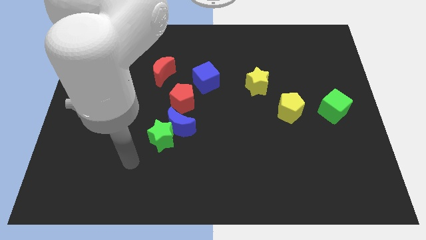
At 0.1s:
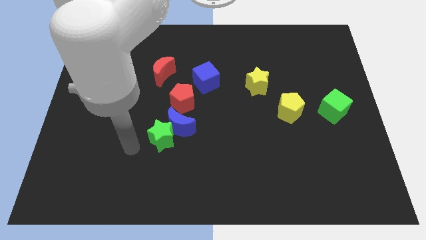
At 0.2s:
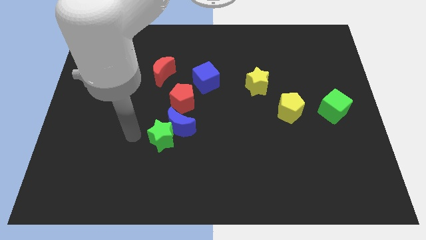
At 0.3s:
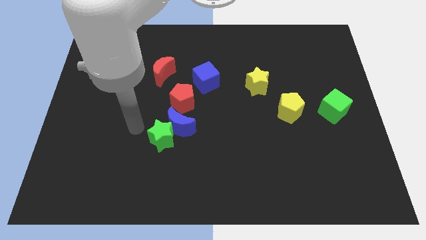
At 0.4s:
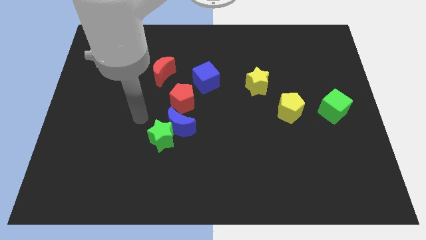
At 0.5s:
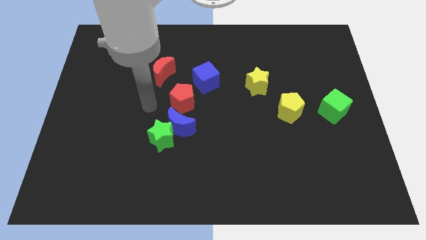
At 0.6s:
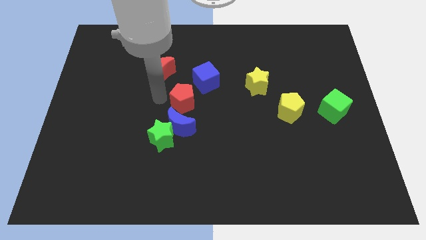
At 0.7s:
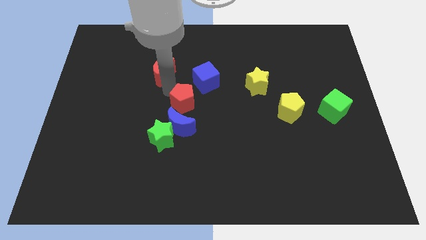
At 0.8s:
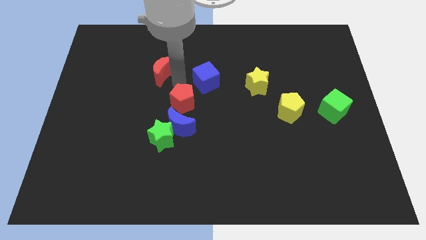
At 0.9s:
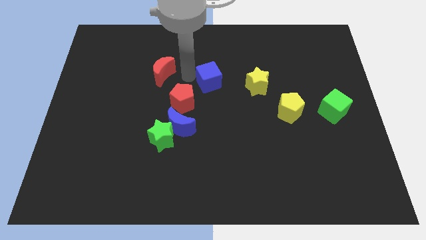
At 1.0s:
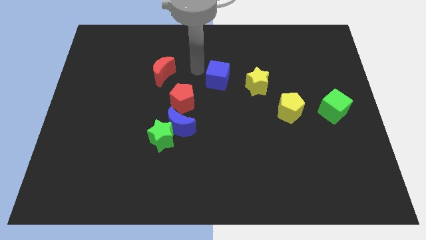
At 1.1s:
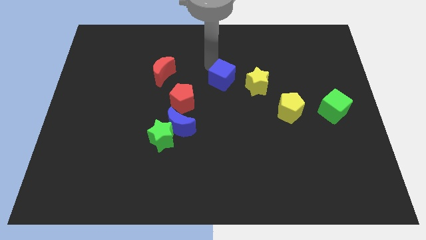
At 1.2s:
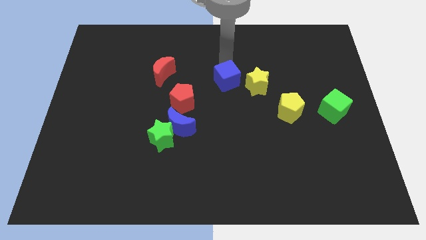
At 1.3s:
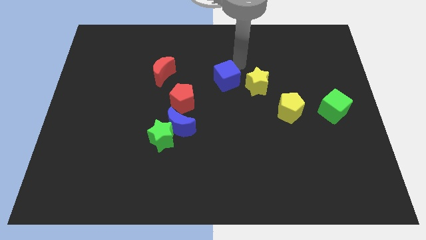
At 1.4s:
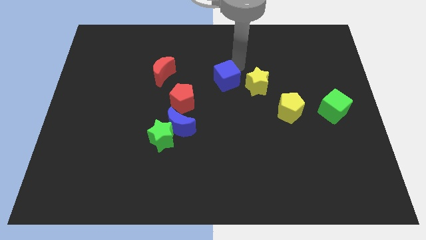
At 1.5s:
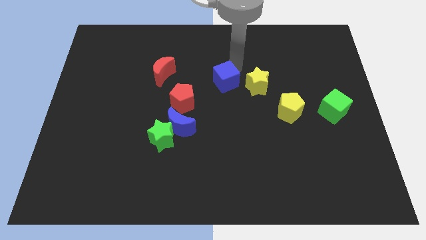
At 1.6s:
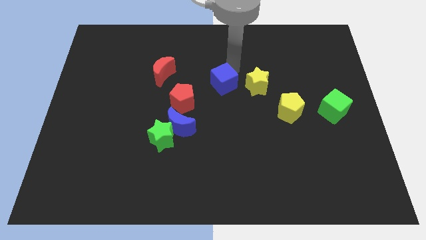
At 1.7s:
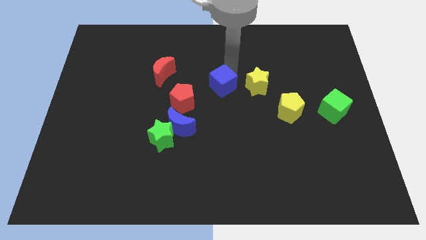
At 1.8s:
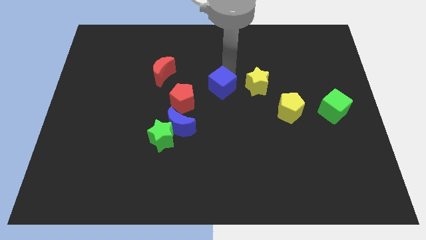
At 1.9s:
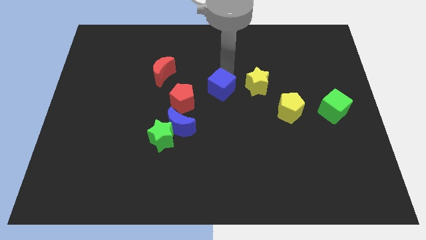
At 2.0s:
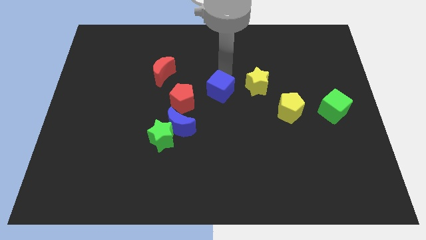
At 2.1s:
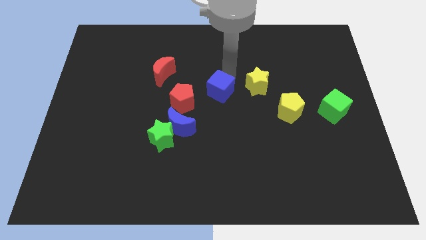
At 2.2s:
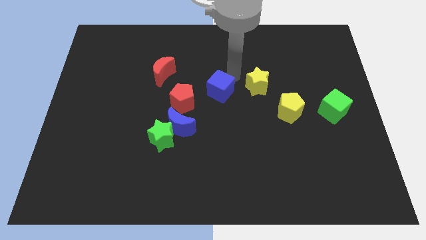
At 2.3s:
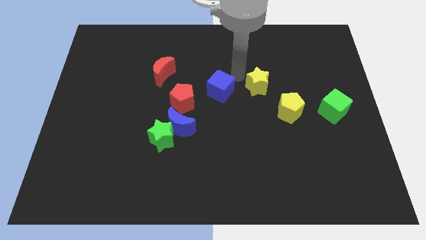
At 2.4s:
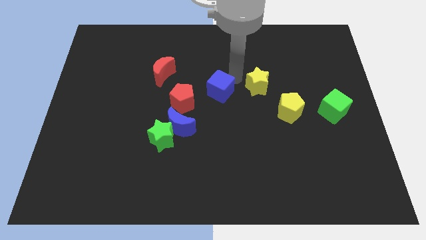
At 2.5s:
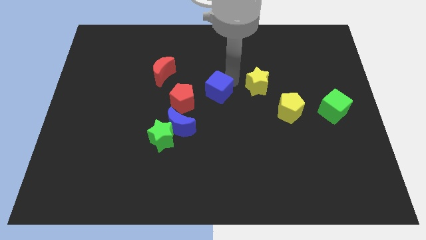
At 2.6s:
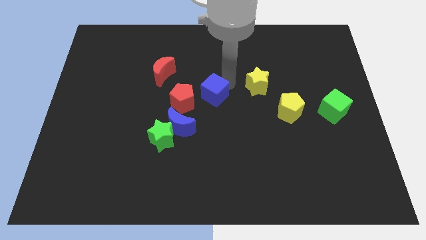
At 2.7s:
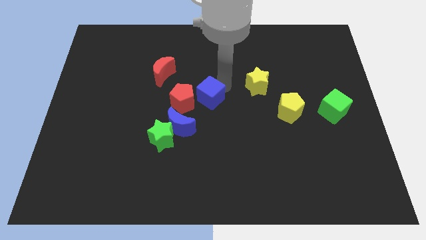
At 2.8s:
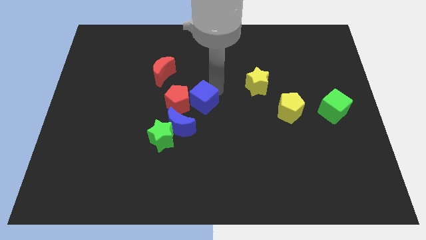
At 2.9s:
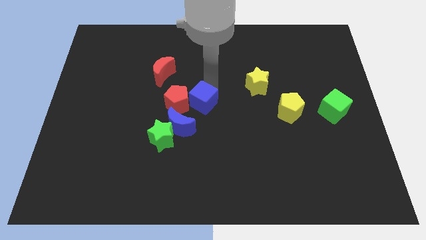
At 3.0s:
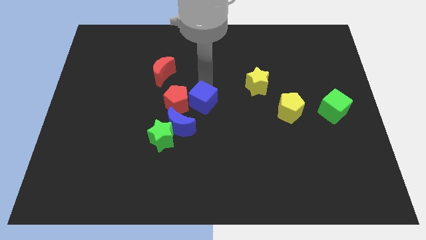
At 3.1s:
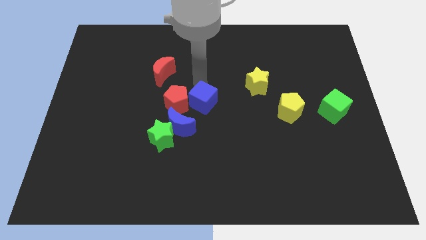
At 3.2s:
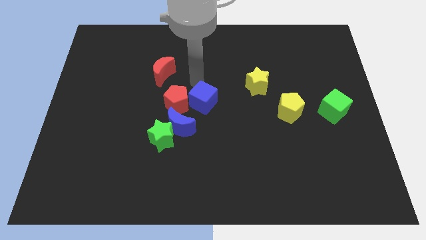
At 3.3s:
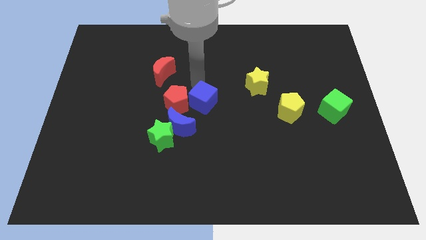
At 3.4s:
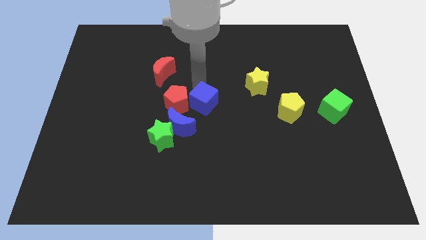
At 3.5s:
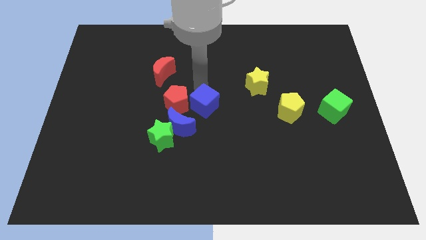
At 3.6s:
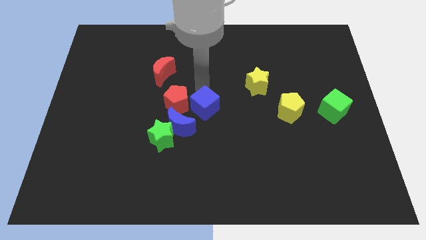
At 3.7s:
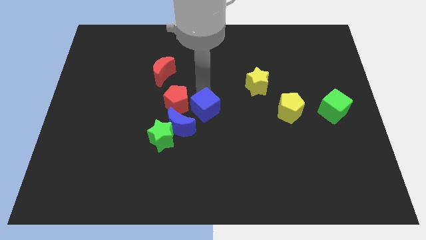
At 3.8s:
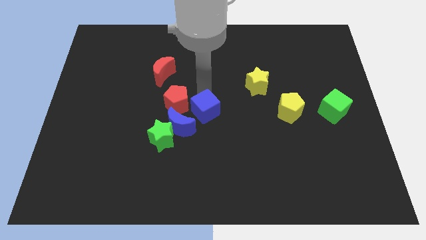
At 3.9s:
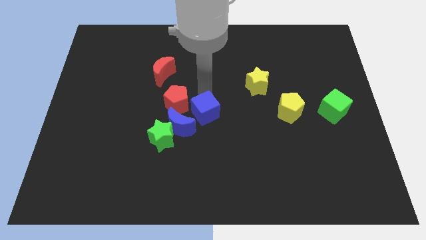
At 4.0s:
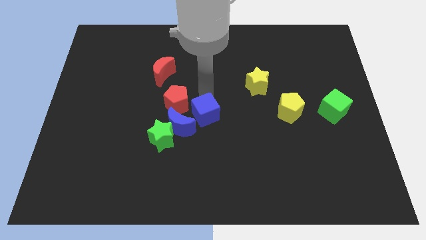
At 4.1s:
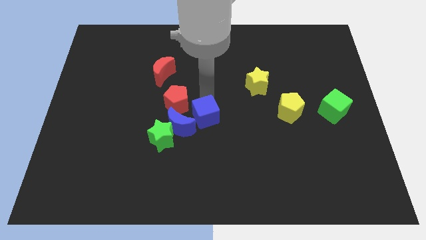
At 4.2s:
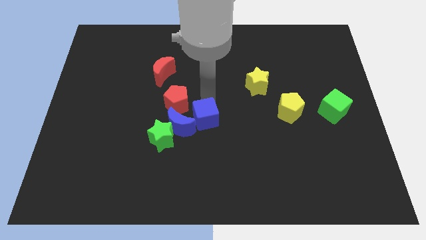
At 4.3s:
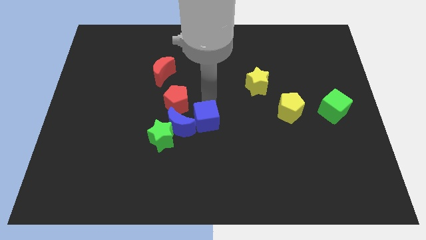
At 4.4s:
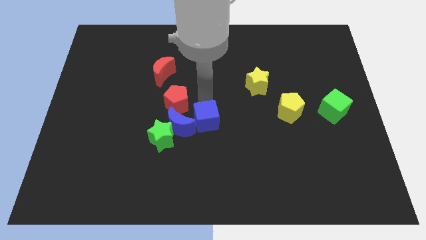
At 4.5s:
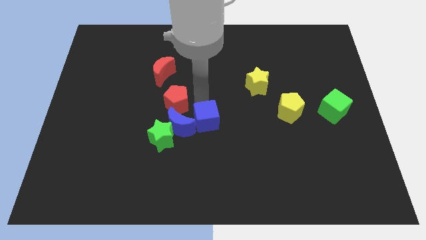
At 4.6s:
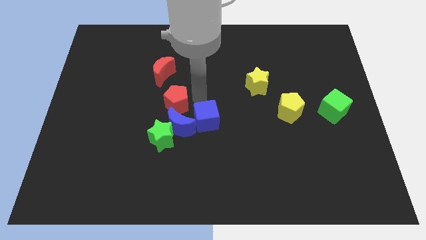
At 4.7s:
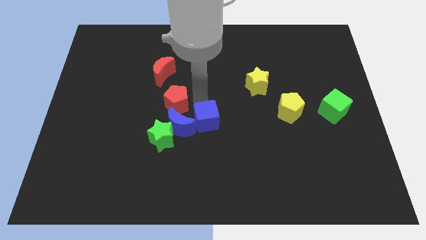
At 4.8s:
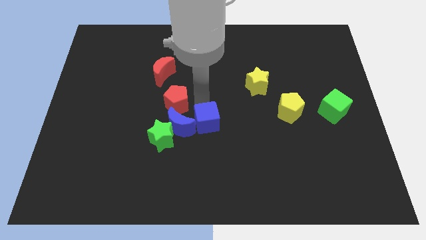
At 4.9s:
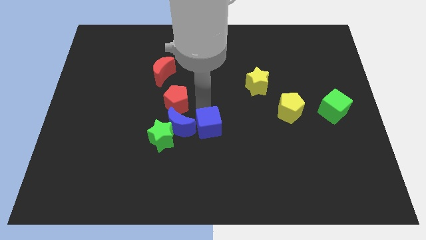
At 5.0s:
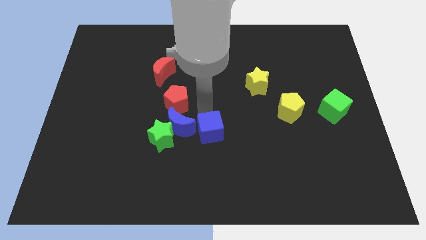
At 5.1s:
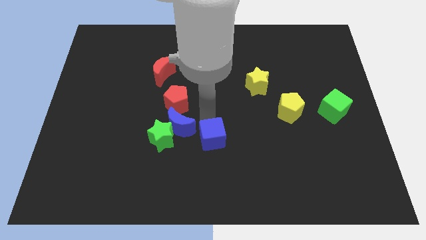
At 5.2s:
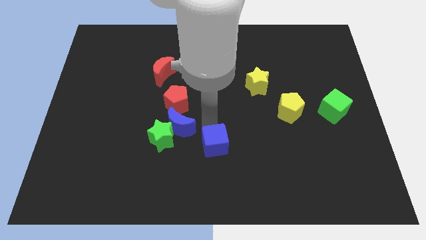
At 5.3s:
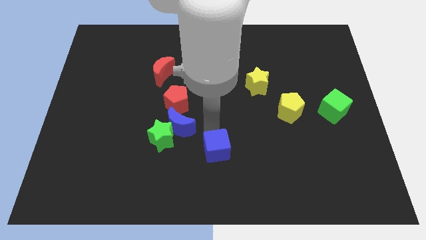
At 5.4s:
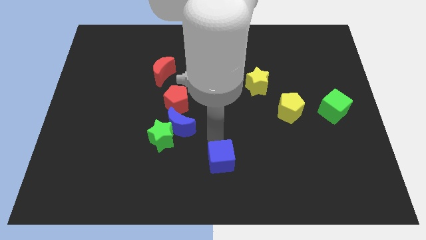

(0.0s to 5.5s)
move the blue cube to the bottom

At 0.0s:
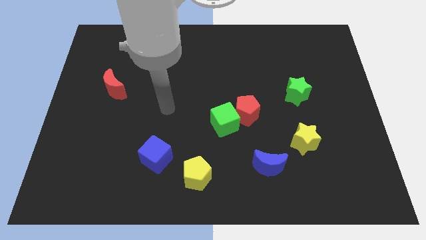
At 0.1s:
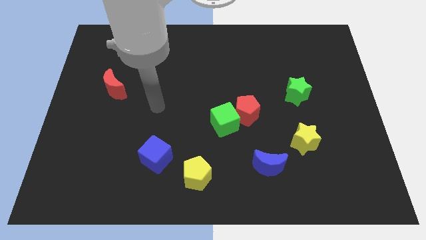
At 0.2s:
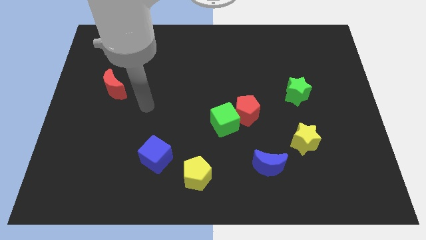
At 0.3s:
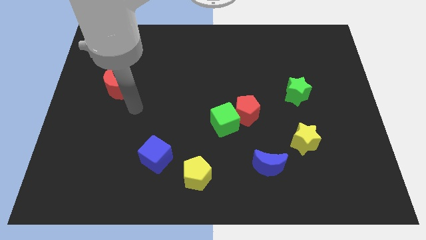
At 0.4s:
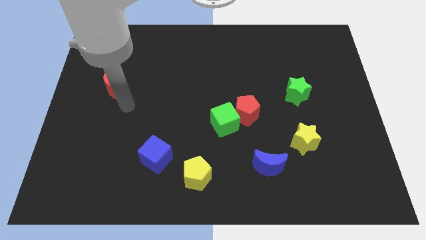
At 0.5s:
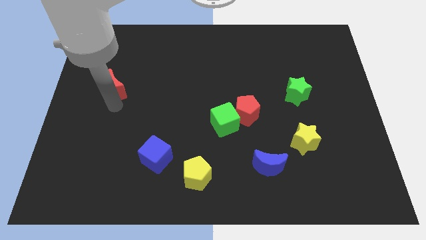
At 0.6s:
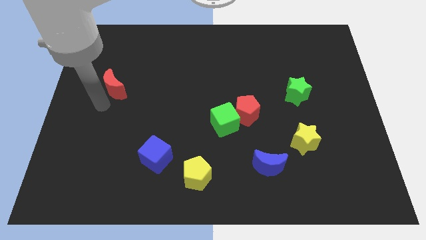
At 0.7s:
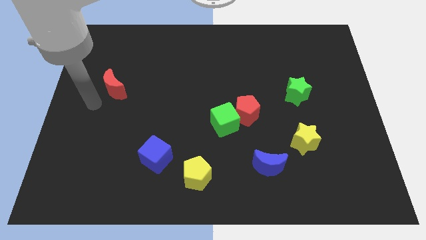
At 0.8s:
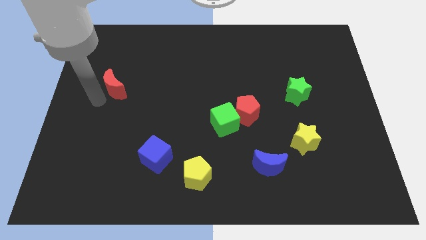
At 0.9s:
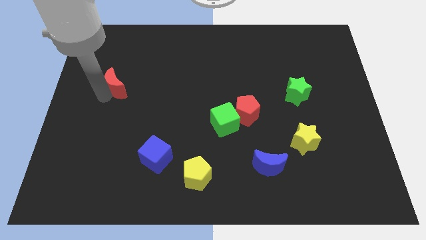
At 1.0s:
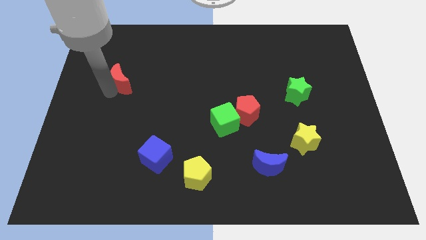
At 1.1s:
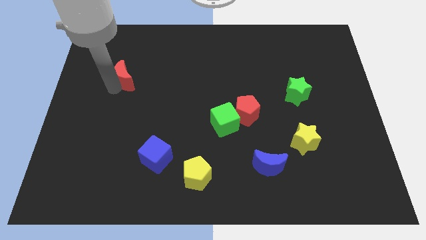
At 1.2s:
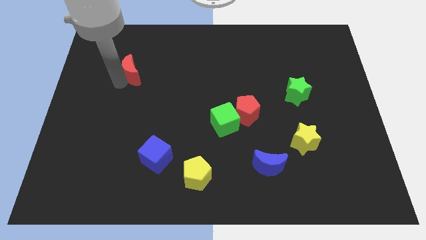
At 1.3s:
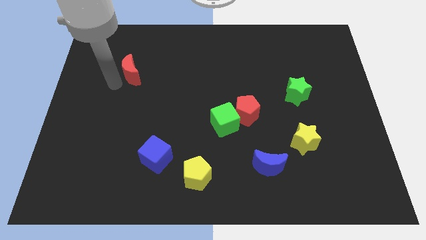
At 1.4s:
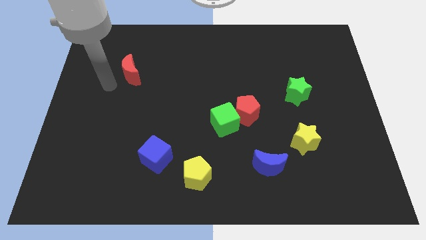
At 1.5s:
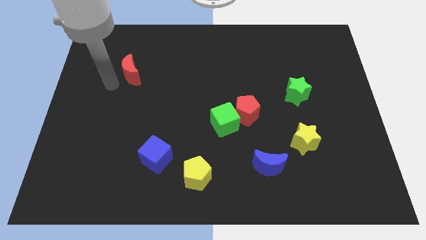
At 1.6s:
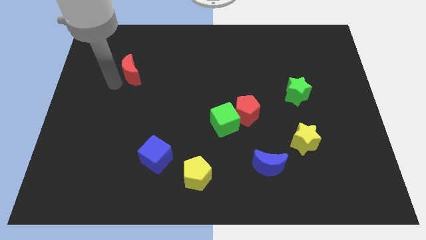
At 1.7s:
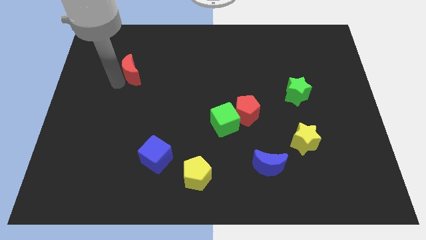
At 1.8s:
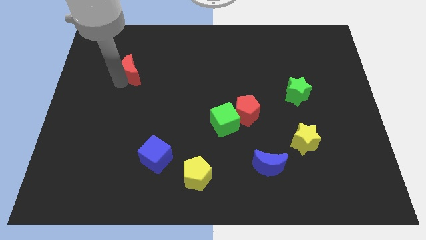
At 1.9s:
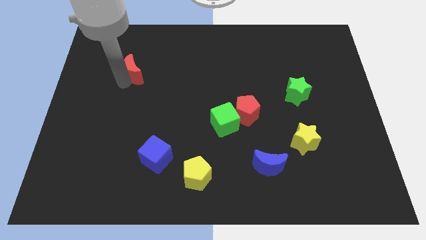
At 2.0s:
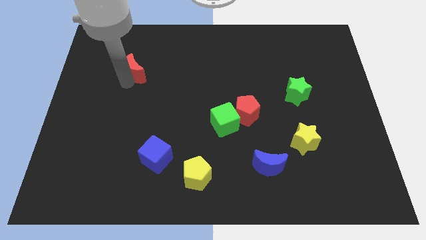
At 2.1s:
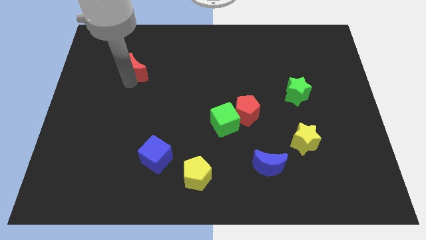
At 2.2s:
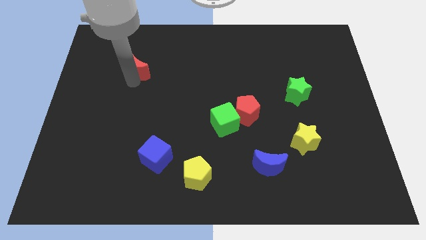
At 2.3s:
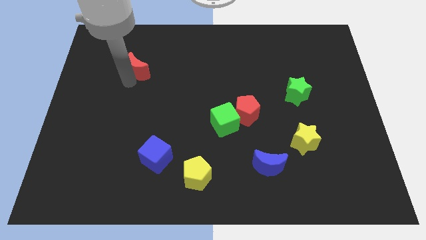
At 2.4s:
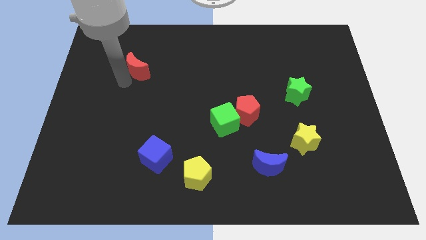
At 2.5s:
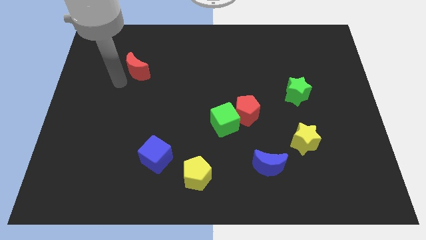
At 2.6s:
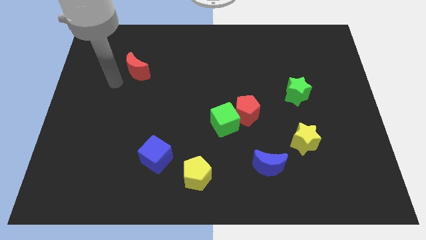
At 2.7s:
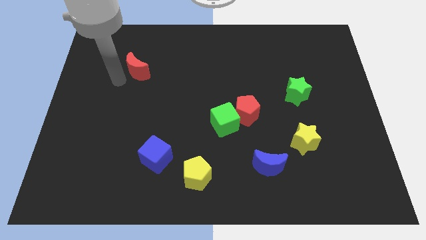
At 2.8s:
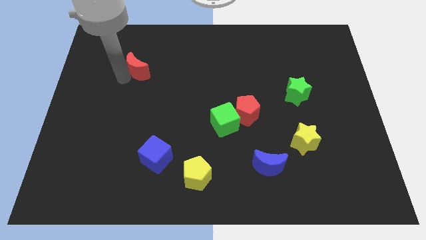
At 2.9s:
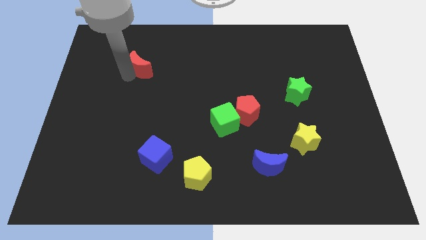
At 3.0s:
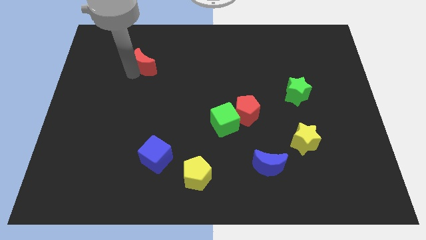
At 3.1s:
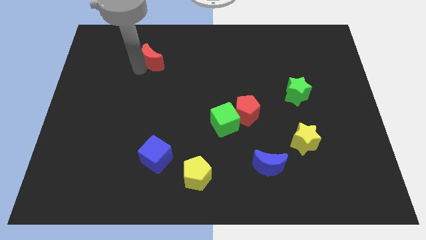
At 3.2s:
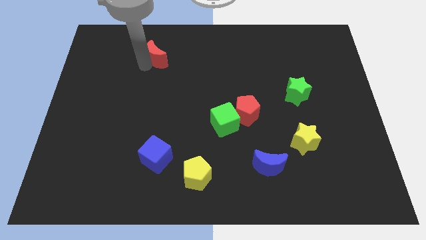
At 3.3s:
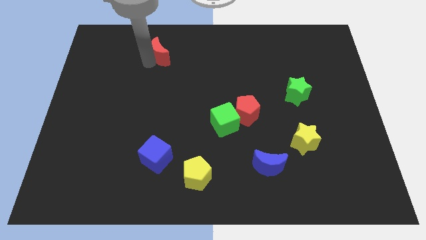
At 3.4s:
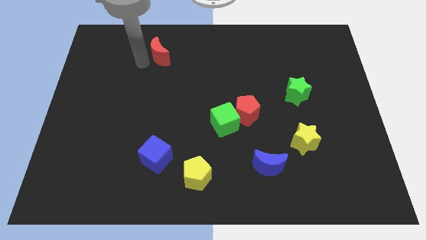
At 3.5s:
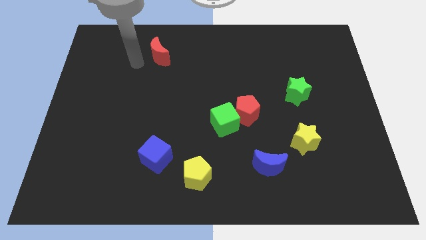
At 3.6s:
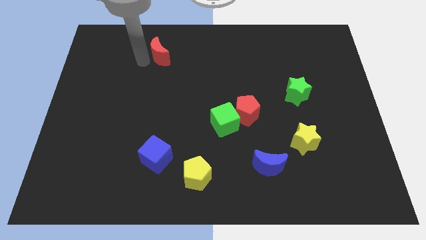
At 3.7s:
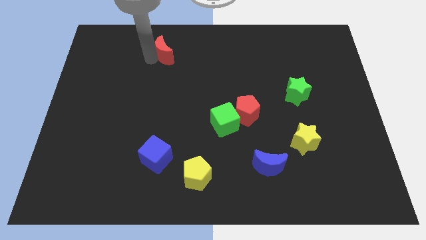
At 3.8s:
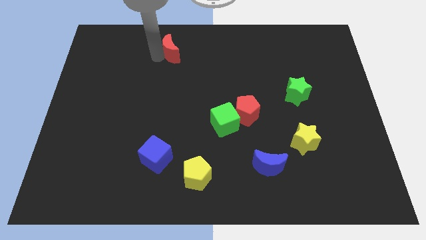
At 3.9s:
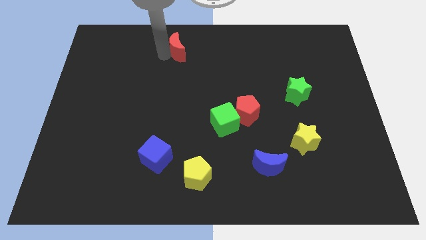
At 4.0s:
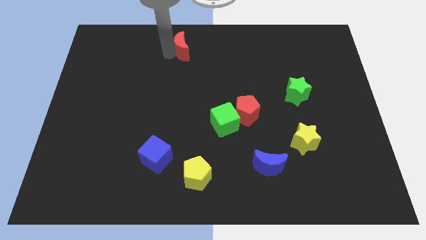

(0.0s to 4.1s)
push the red moon to the towards your base
